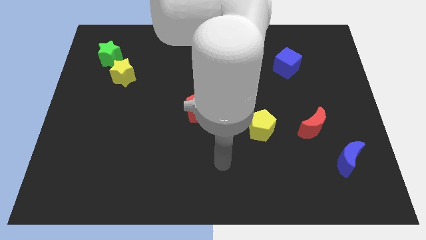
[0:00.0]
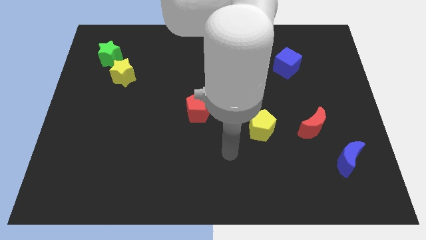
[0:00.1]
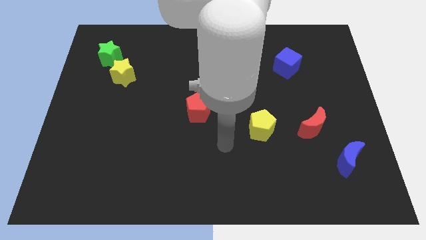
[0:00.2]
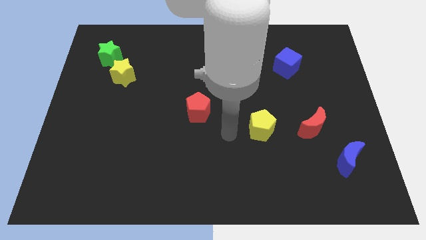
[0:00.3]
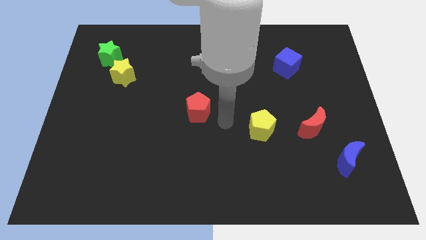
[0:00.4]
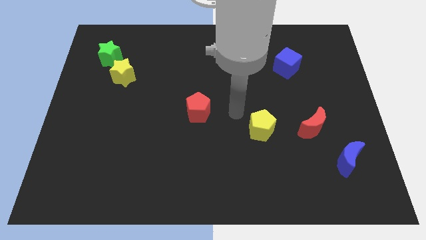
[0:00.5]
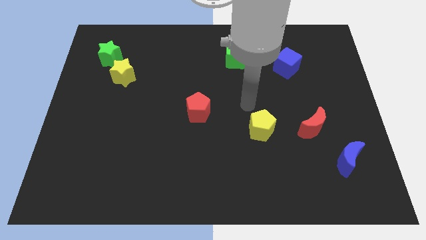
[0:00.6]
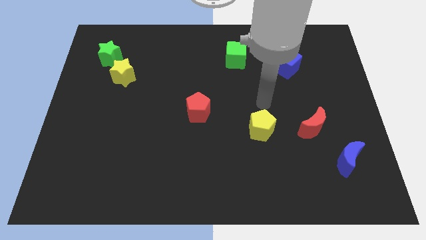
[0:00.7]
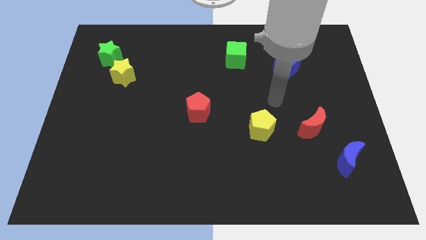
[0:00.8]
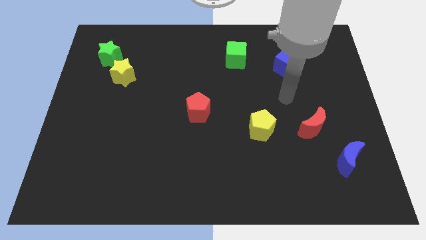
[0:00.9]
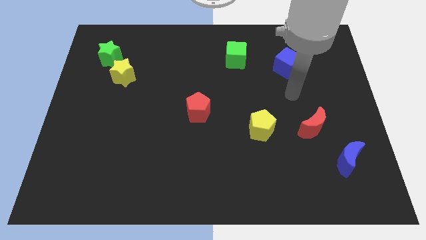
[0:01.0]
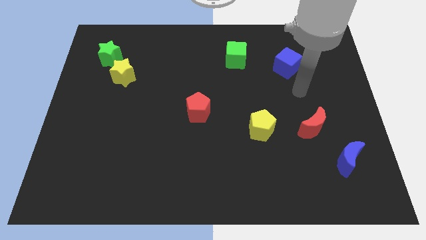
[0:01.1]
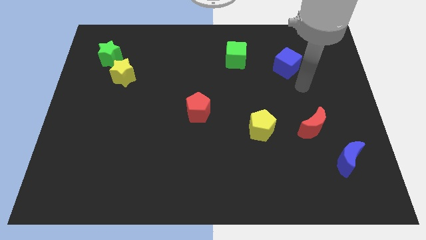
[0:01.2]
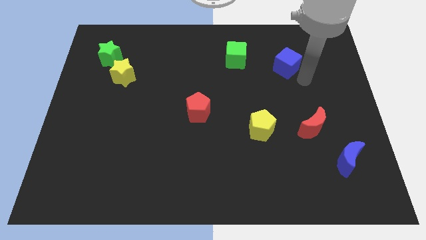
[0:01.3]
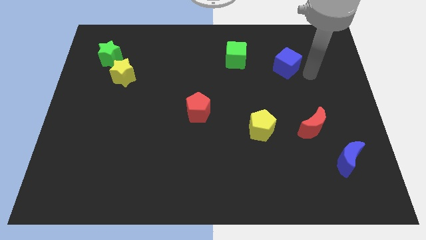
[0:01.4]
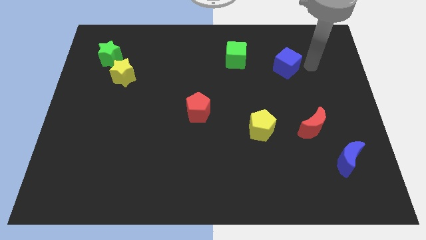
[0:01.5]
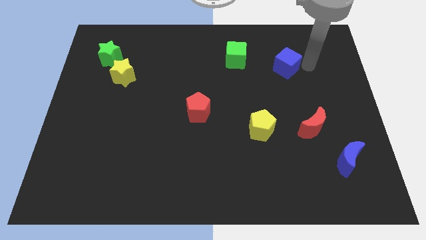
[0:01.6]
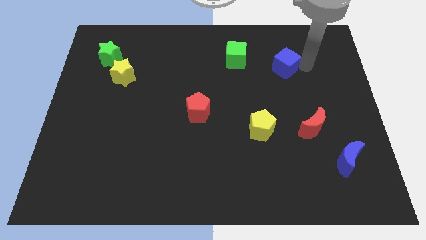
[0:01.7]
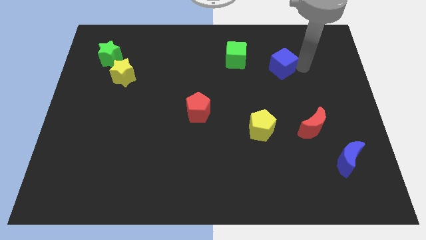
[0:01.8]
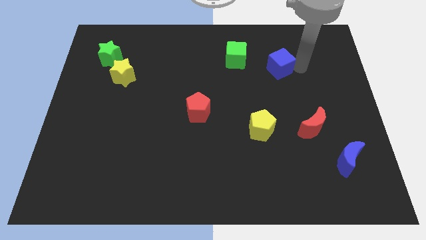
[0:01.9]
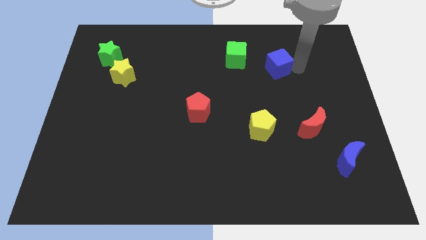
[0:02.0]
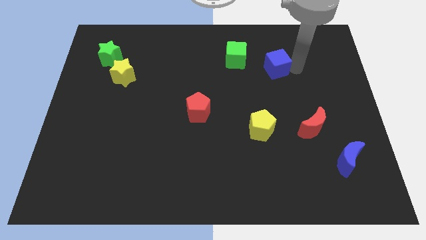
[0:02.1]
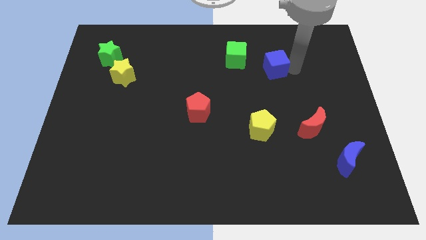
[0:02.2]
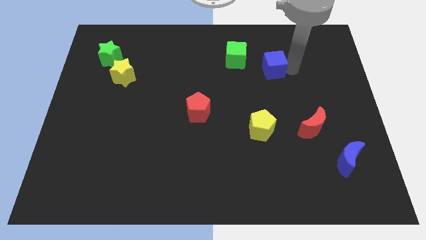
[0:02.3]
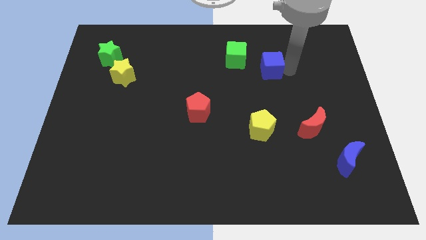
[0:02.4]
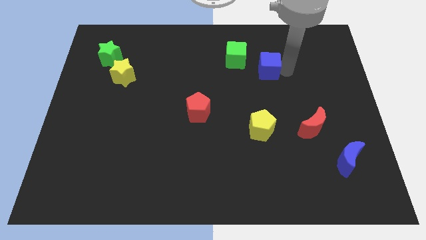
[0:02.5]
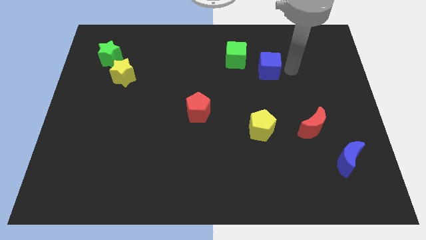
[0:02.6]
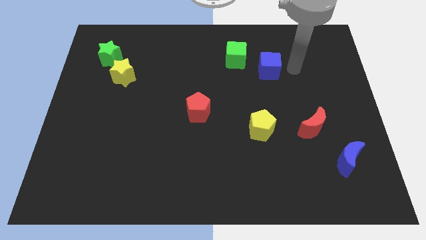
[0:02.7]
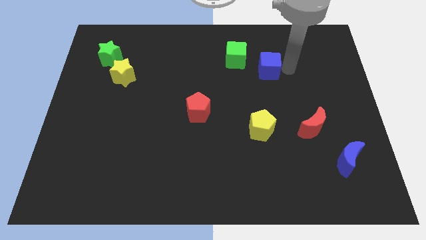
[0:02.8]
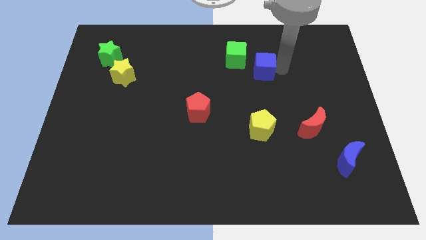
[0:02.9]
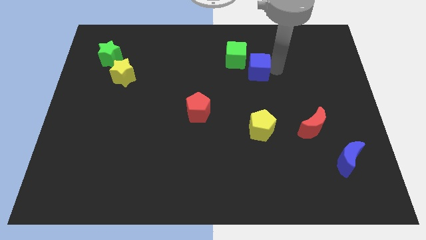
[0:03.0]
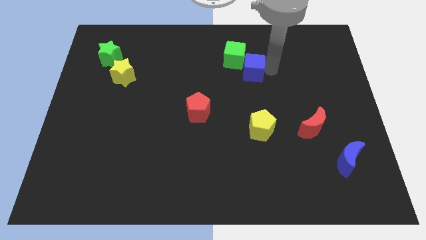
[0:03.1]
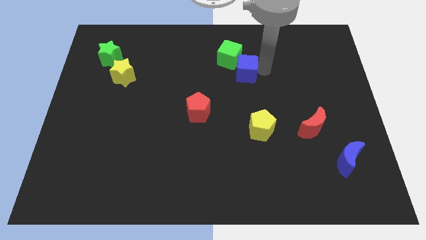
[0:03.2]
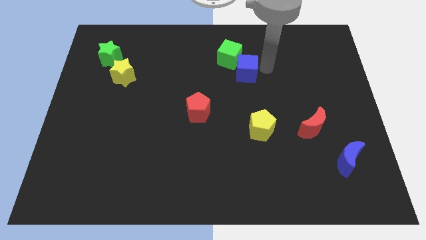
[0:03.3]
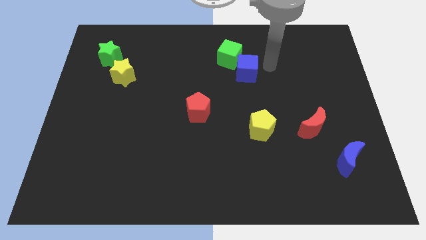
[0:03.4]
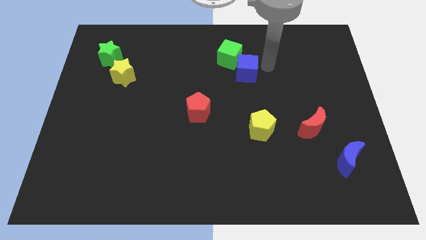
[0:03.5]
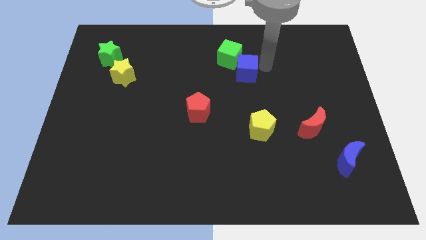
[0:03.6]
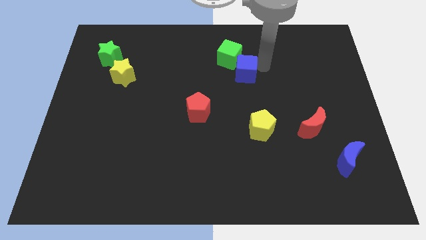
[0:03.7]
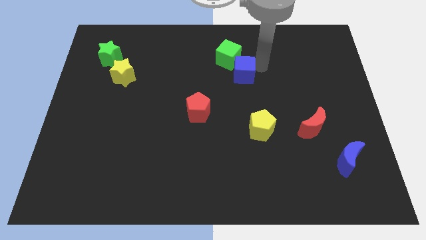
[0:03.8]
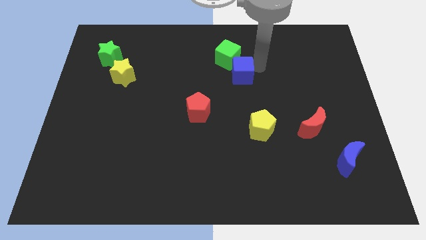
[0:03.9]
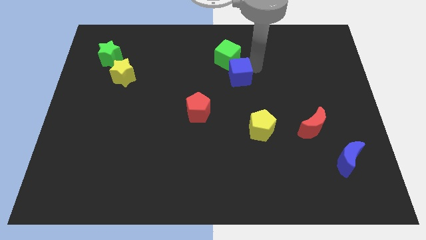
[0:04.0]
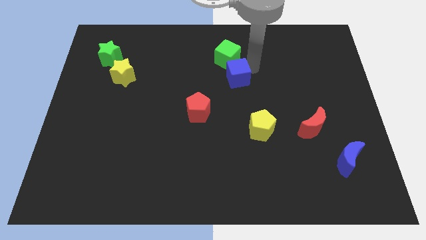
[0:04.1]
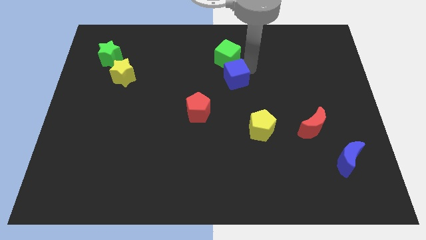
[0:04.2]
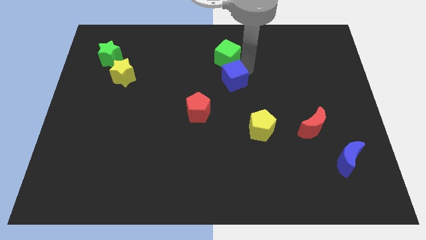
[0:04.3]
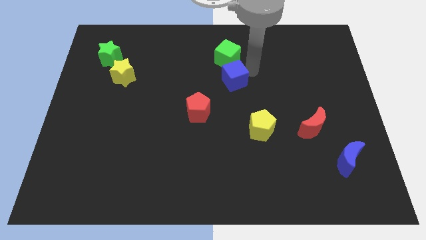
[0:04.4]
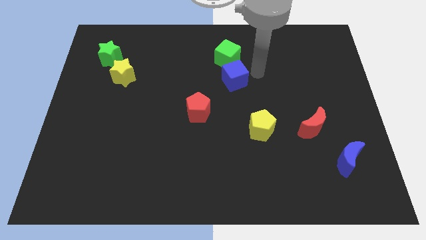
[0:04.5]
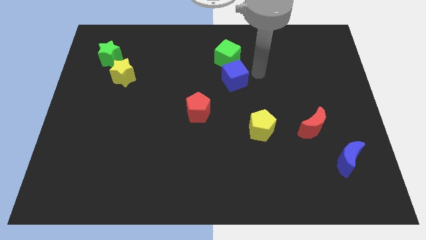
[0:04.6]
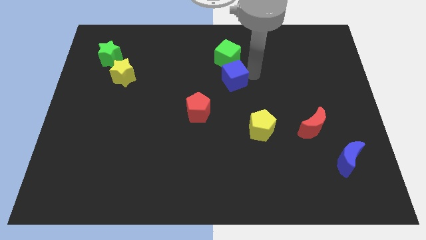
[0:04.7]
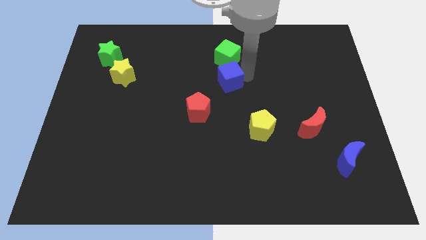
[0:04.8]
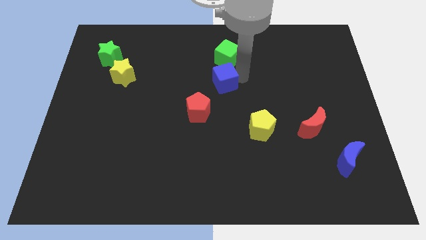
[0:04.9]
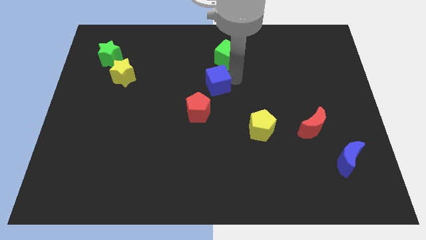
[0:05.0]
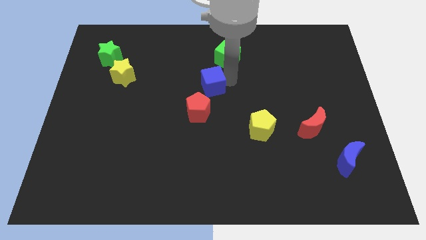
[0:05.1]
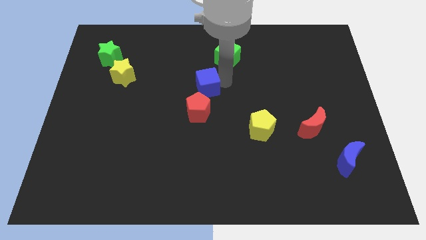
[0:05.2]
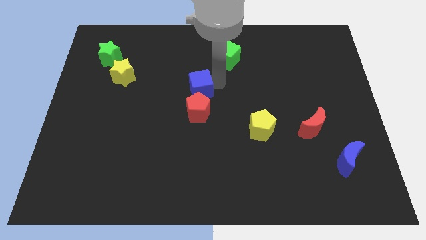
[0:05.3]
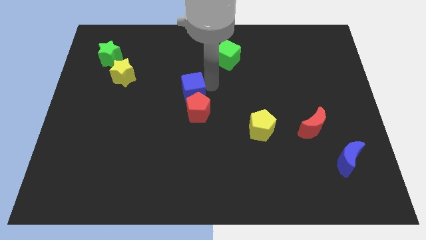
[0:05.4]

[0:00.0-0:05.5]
slide the blue cube to the top left side of the red pentagon

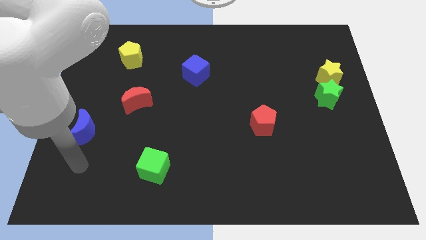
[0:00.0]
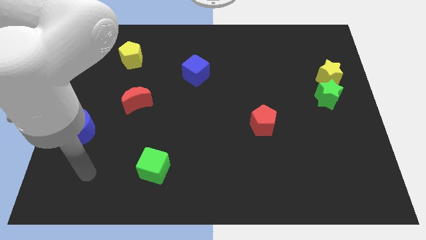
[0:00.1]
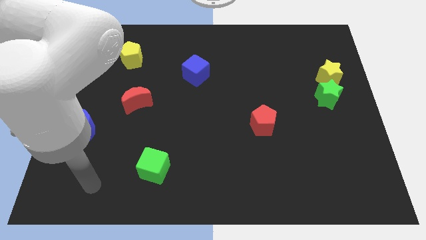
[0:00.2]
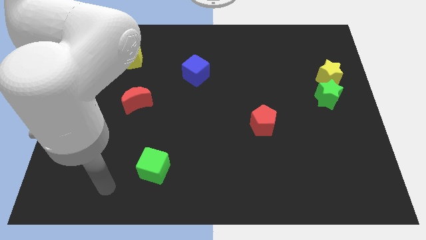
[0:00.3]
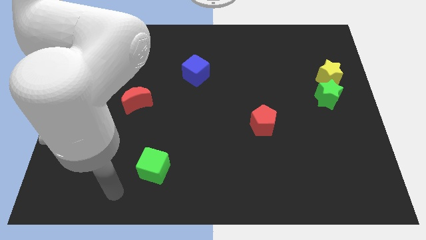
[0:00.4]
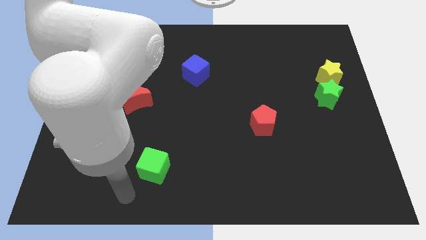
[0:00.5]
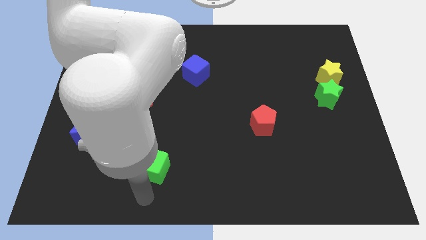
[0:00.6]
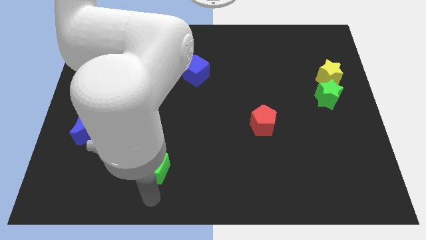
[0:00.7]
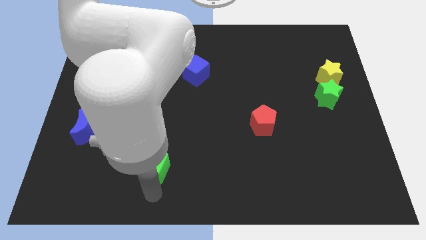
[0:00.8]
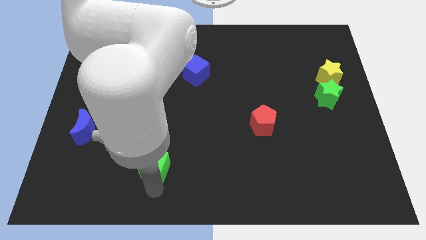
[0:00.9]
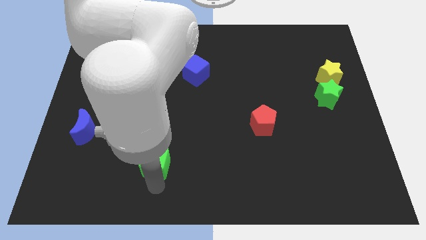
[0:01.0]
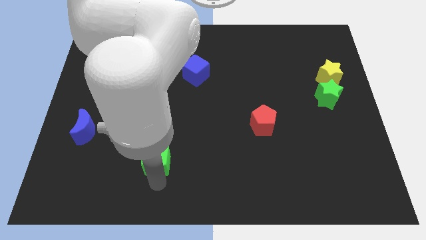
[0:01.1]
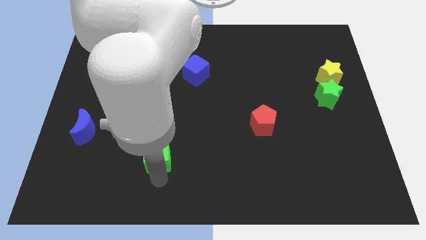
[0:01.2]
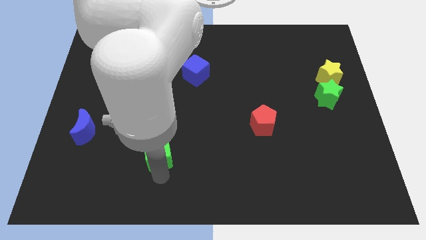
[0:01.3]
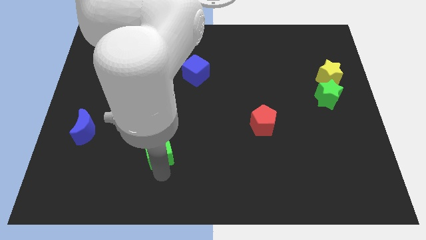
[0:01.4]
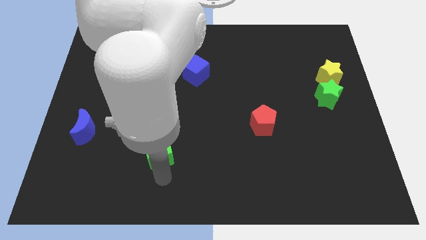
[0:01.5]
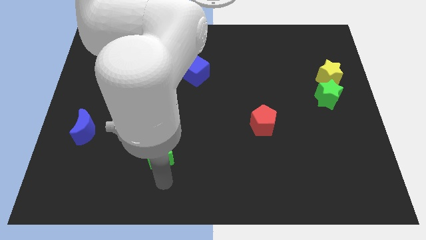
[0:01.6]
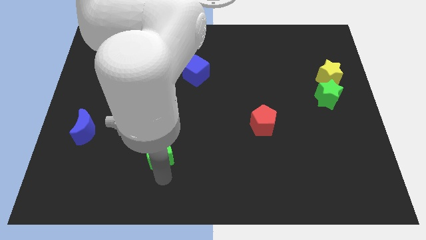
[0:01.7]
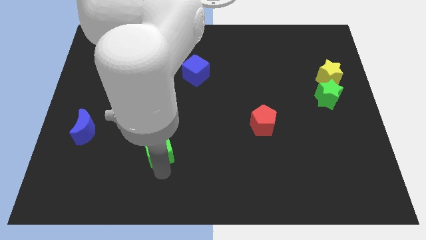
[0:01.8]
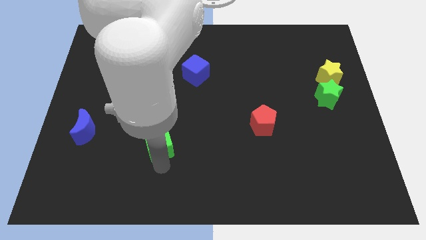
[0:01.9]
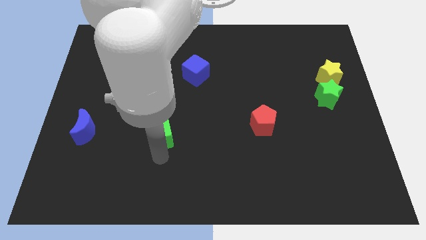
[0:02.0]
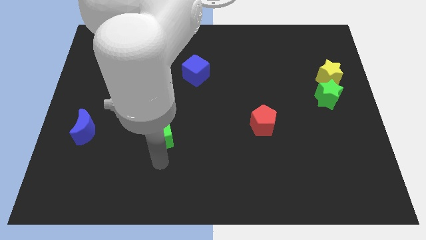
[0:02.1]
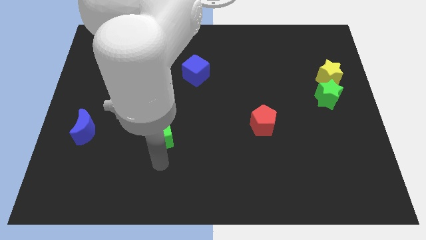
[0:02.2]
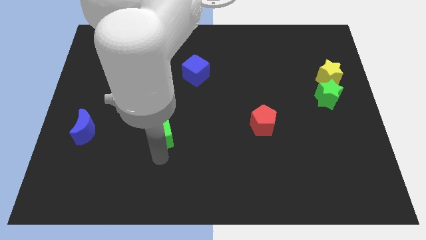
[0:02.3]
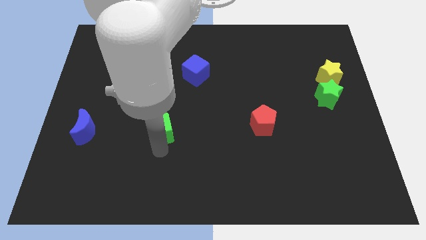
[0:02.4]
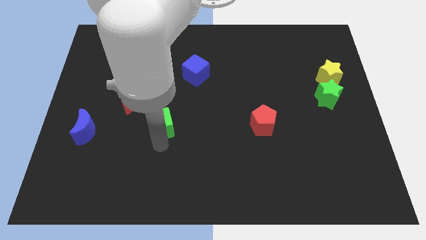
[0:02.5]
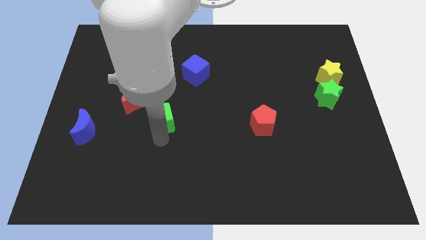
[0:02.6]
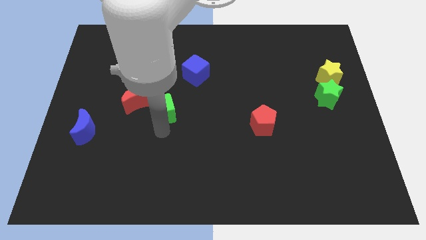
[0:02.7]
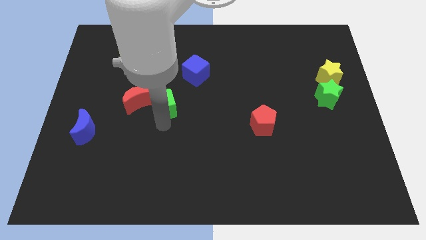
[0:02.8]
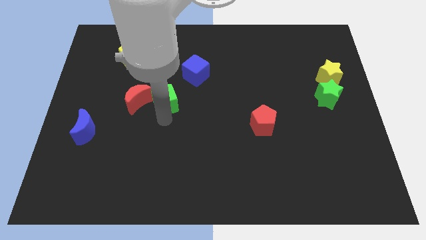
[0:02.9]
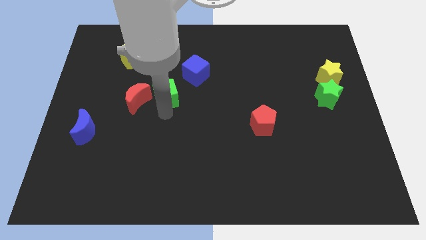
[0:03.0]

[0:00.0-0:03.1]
move the green cube to the top right side of the red moon

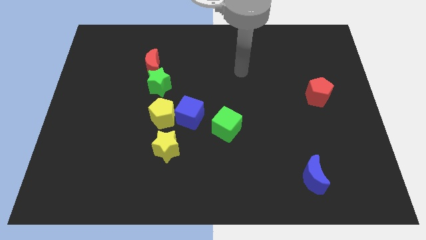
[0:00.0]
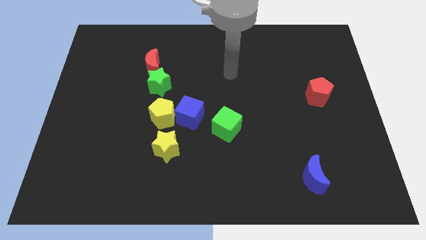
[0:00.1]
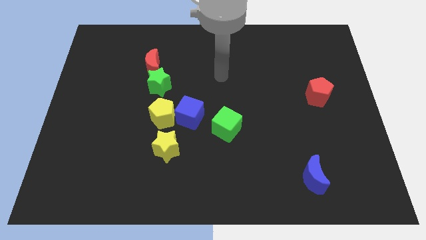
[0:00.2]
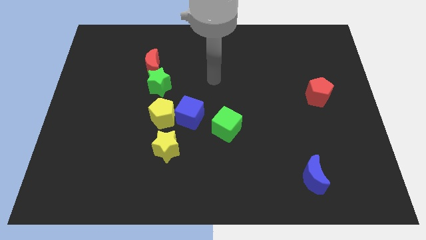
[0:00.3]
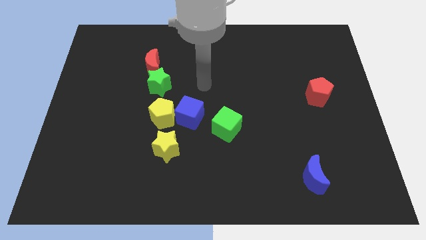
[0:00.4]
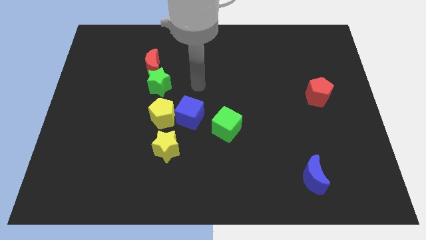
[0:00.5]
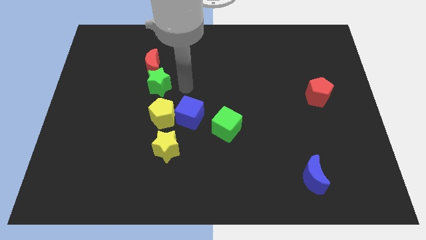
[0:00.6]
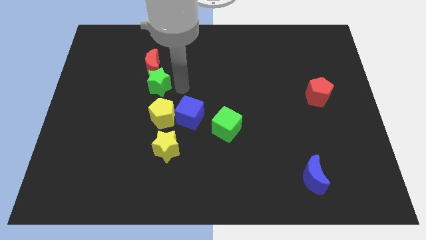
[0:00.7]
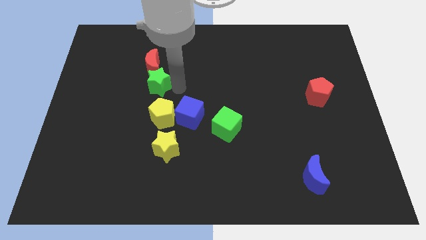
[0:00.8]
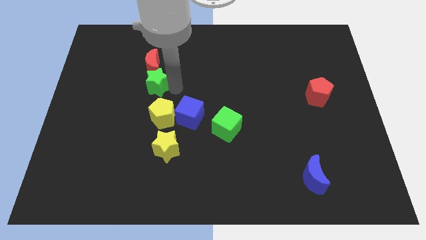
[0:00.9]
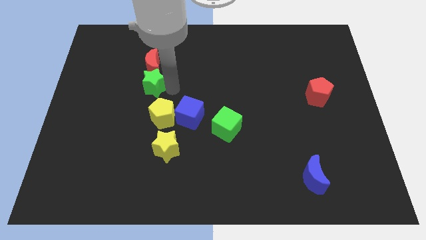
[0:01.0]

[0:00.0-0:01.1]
move the green star diagonally down and to the left of the red moon
